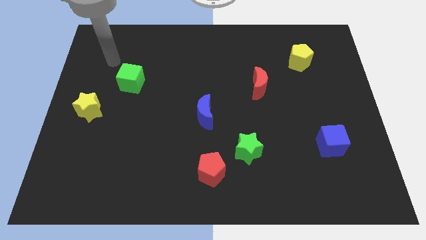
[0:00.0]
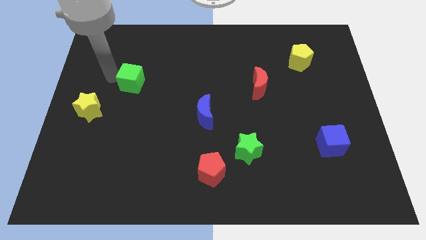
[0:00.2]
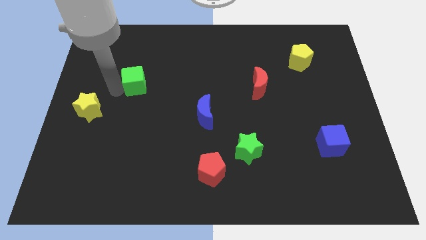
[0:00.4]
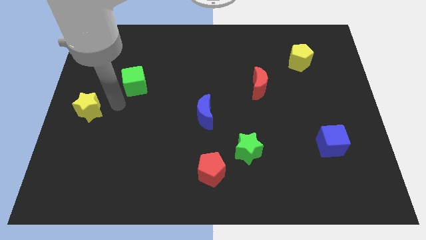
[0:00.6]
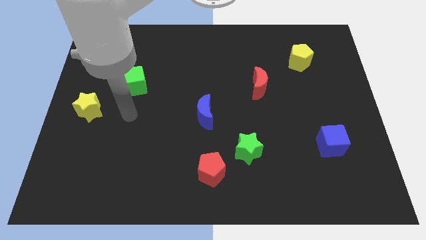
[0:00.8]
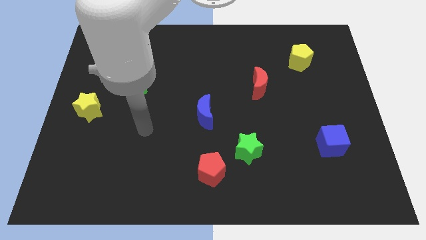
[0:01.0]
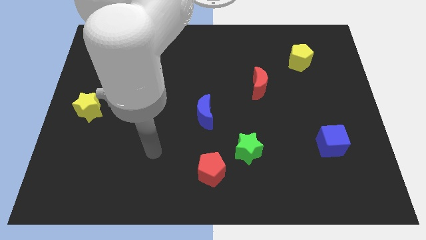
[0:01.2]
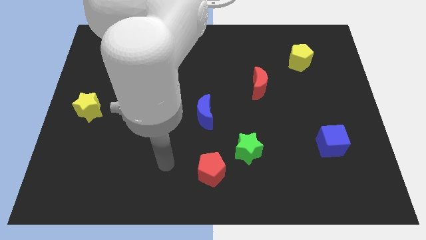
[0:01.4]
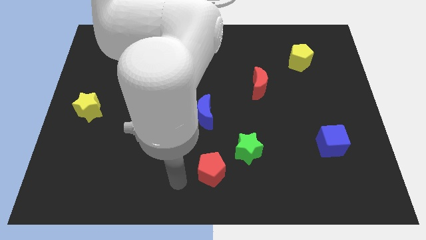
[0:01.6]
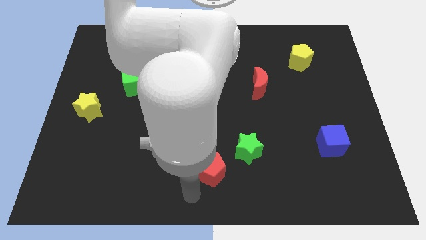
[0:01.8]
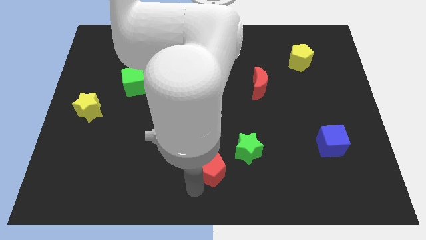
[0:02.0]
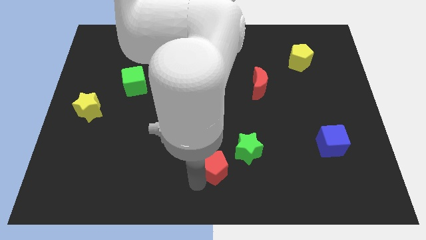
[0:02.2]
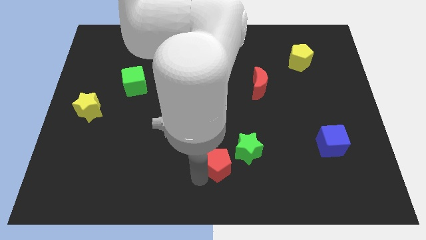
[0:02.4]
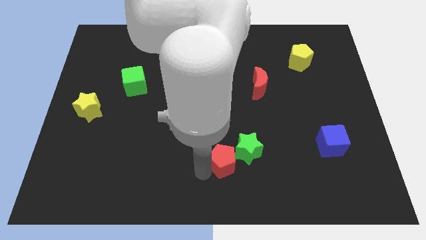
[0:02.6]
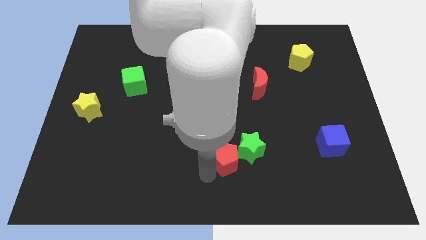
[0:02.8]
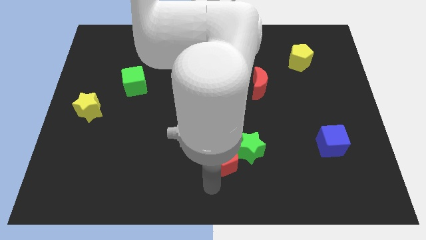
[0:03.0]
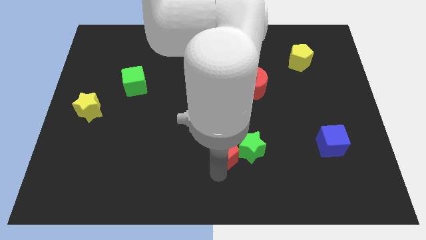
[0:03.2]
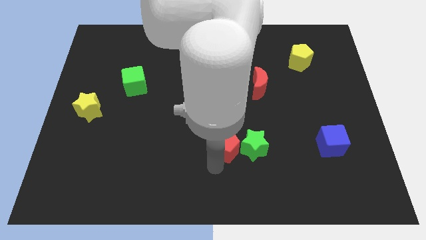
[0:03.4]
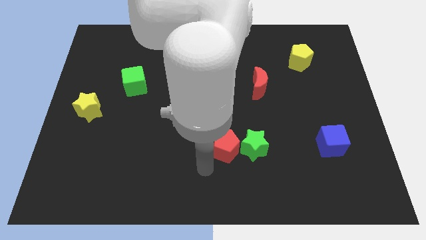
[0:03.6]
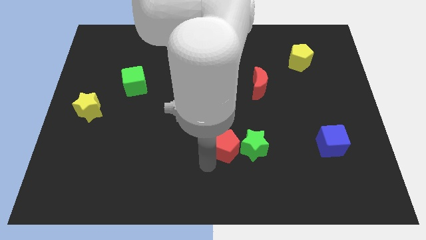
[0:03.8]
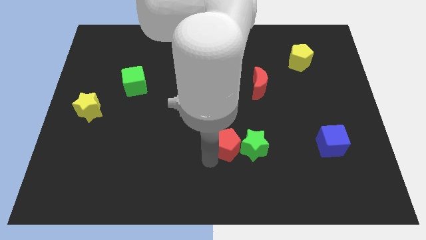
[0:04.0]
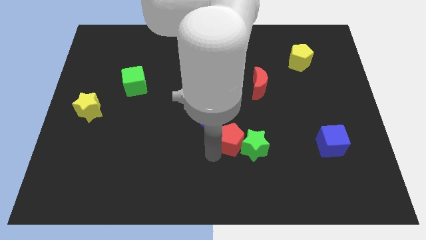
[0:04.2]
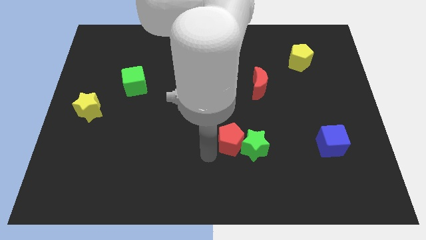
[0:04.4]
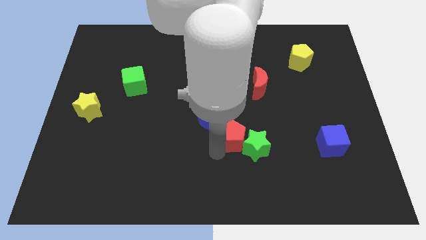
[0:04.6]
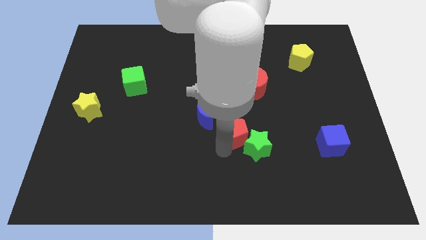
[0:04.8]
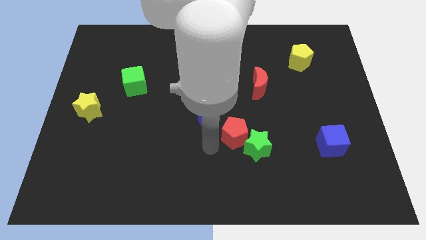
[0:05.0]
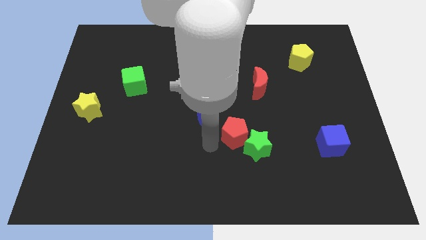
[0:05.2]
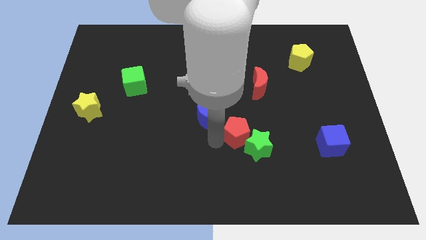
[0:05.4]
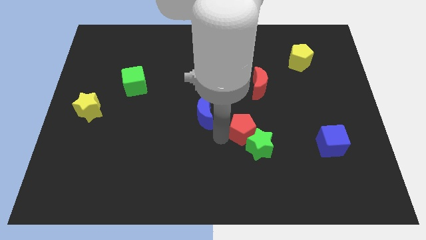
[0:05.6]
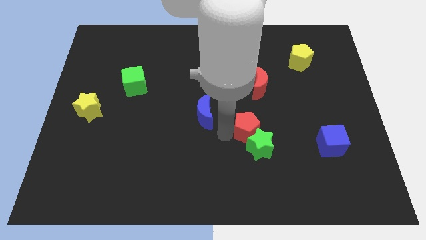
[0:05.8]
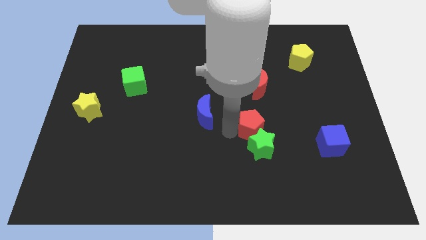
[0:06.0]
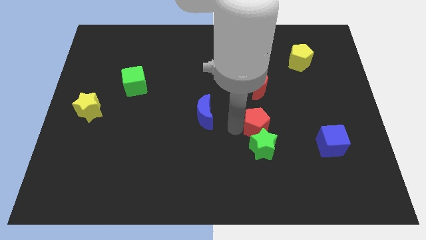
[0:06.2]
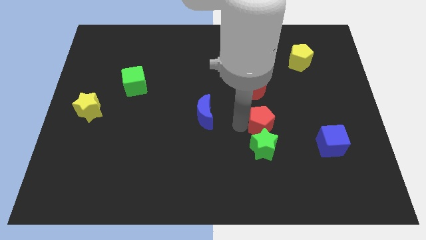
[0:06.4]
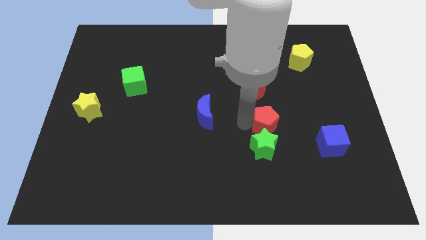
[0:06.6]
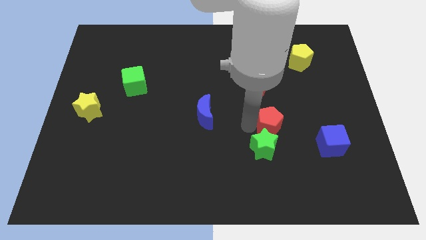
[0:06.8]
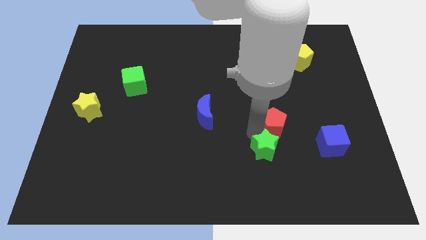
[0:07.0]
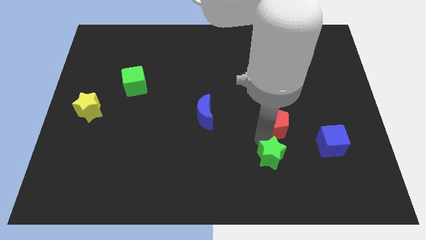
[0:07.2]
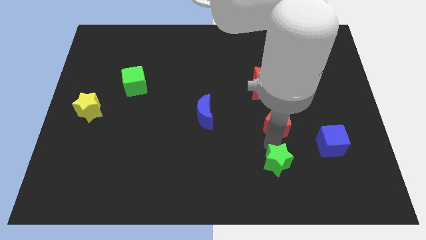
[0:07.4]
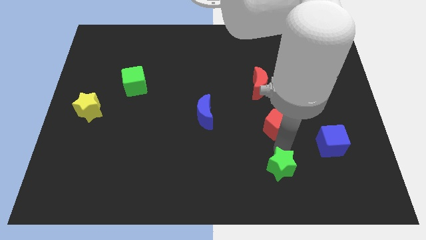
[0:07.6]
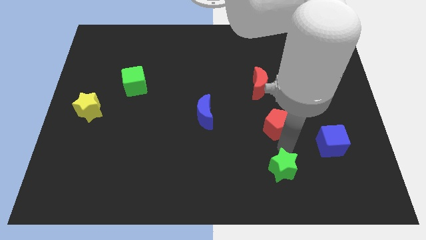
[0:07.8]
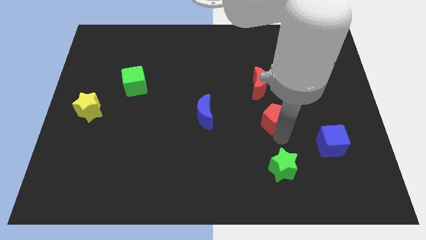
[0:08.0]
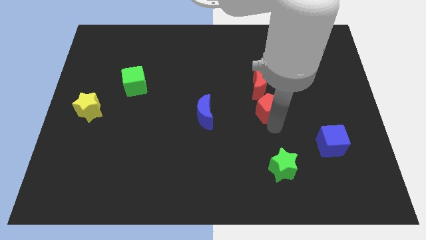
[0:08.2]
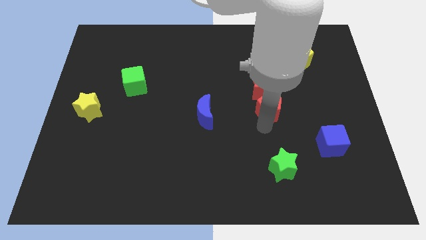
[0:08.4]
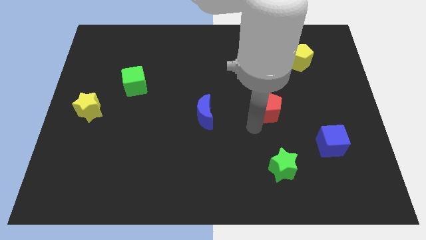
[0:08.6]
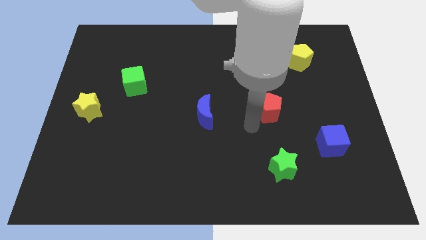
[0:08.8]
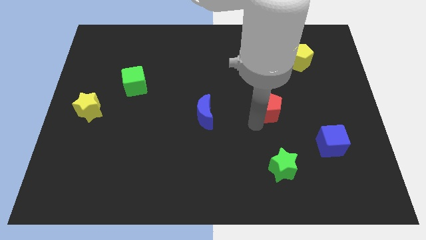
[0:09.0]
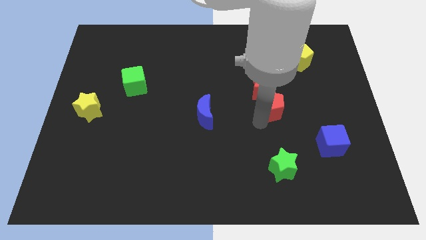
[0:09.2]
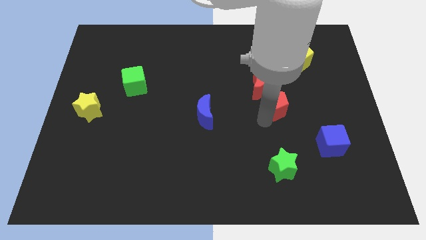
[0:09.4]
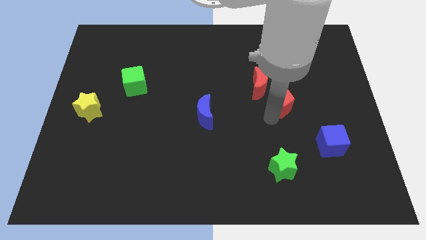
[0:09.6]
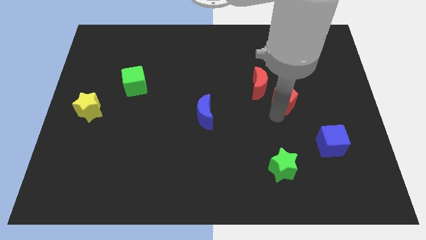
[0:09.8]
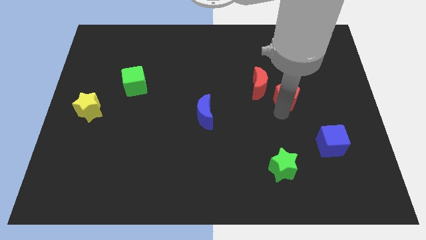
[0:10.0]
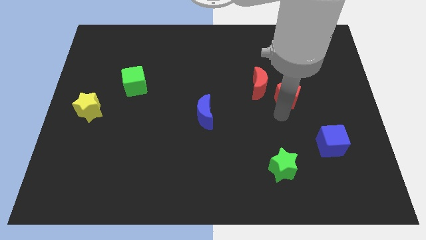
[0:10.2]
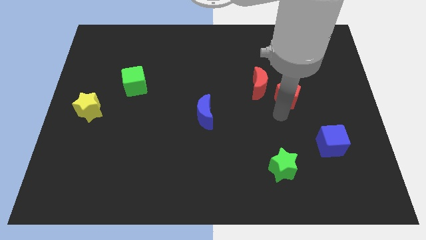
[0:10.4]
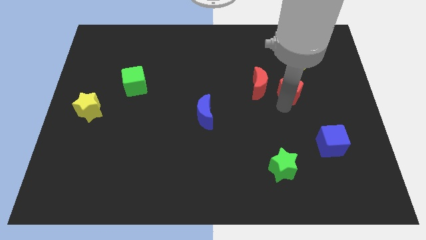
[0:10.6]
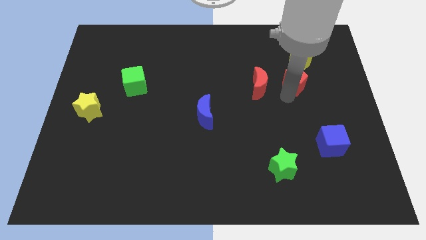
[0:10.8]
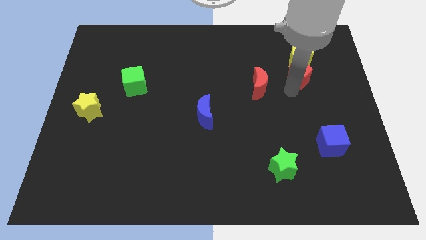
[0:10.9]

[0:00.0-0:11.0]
move the red pentagon next to the yellow pentagon

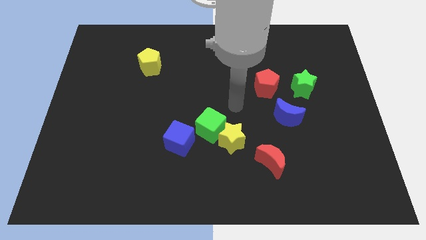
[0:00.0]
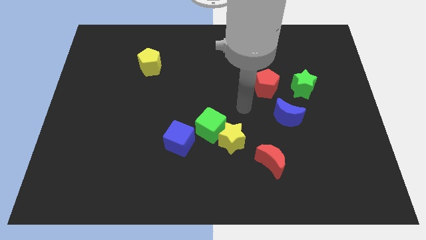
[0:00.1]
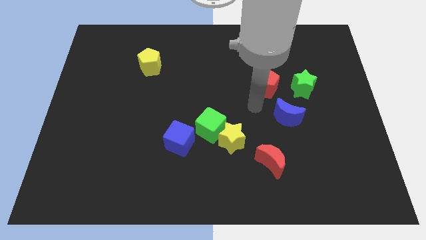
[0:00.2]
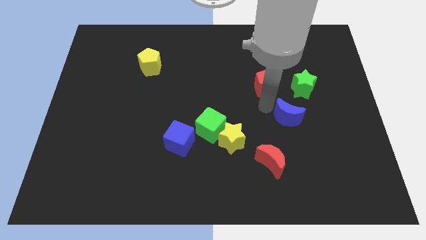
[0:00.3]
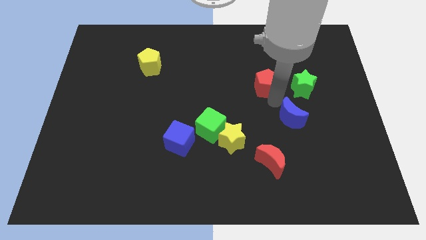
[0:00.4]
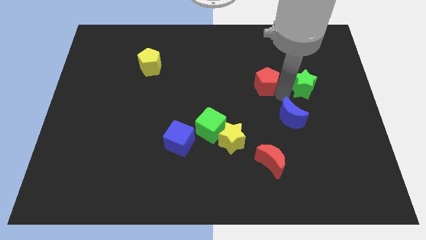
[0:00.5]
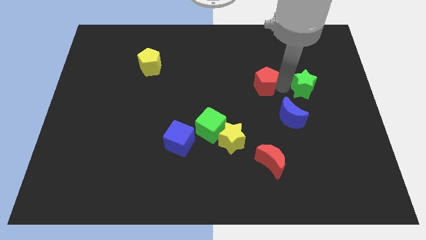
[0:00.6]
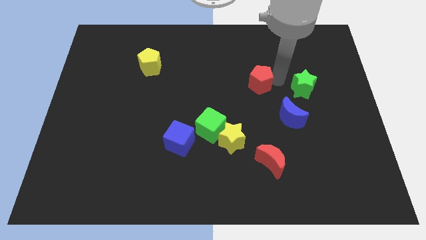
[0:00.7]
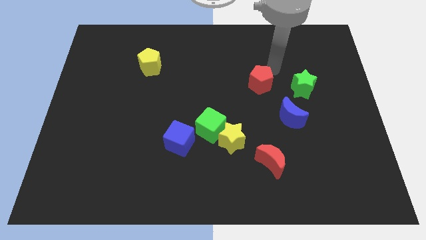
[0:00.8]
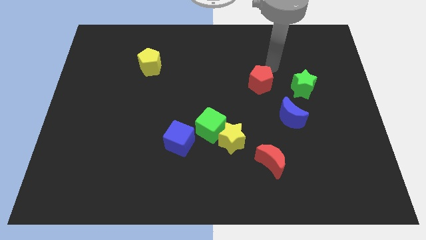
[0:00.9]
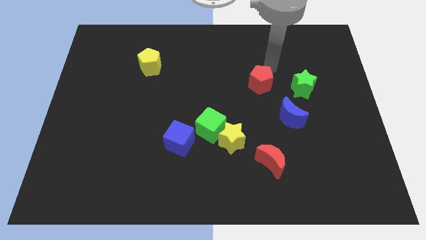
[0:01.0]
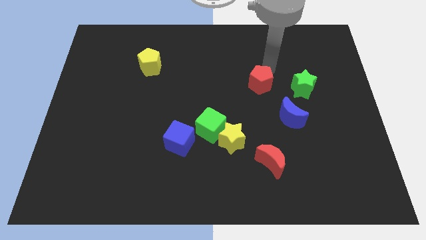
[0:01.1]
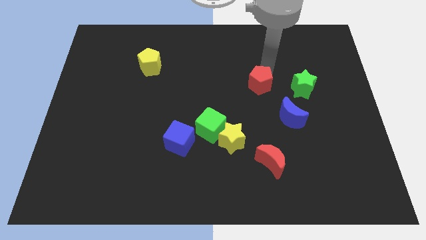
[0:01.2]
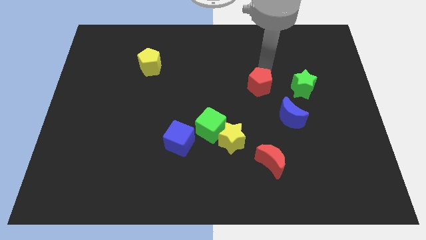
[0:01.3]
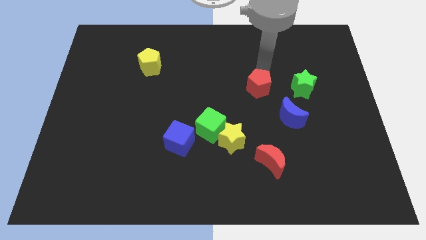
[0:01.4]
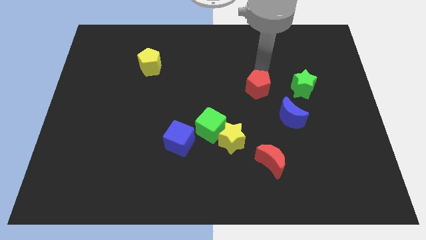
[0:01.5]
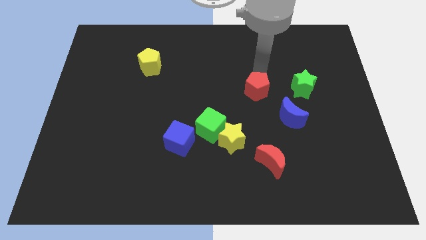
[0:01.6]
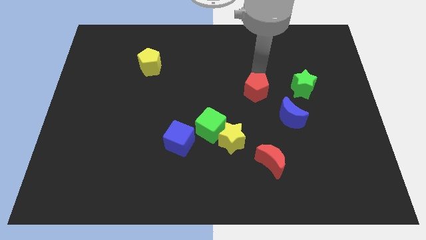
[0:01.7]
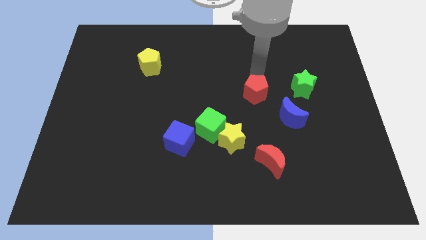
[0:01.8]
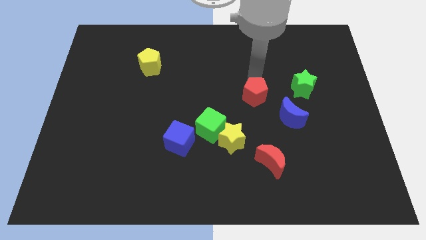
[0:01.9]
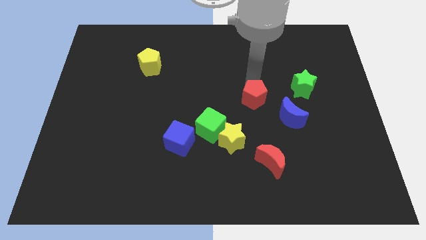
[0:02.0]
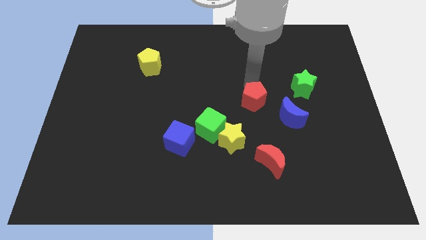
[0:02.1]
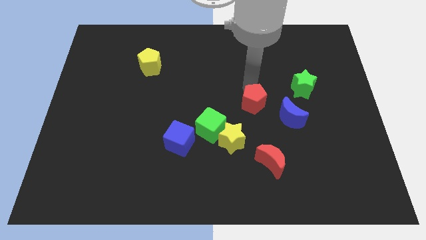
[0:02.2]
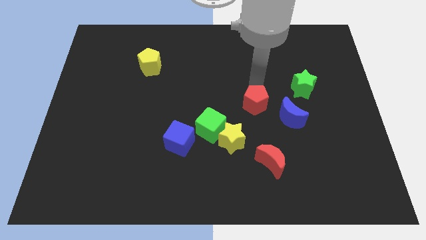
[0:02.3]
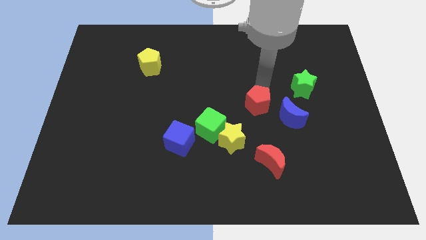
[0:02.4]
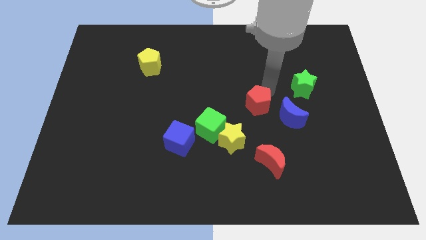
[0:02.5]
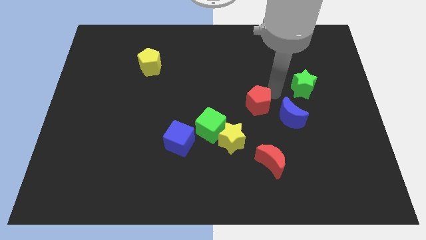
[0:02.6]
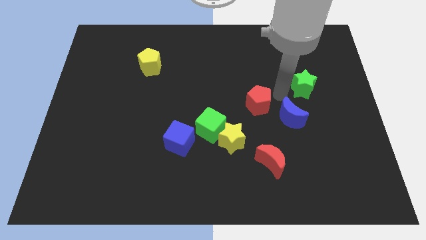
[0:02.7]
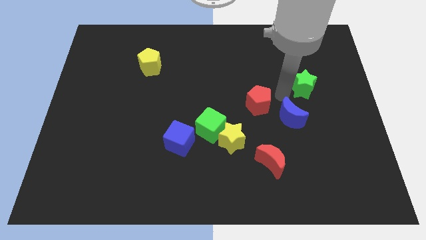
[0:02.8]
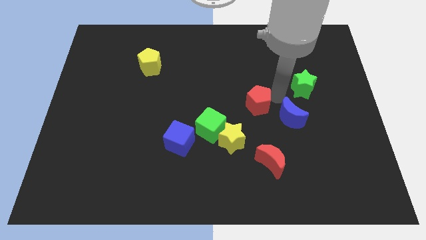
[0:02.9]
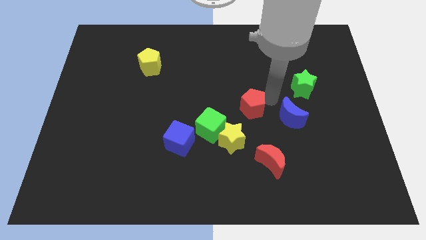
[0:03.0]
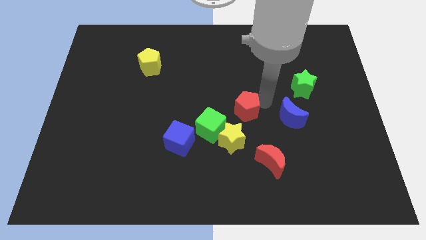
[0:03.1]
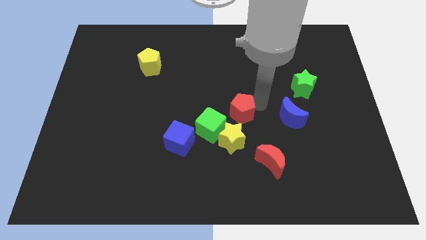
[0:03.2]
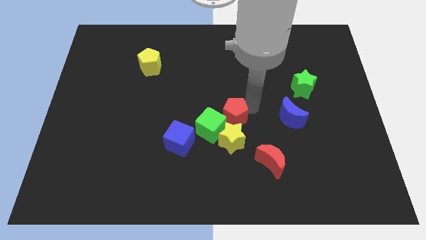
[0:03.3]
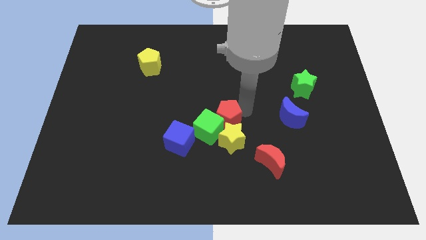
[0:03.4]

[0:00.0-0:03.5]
put the red pentagon towards the green cube
